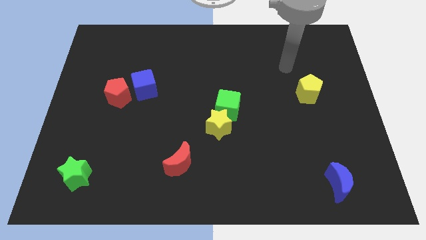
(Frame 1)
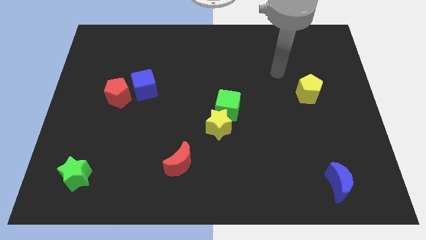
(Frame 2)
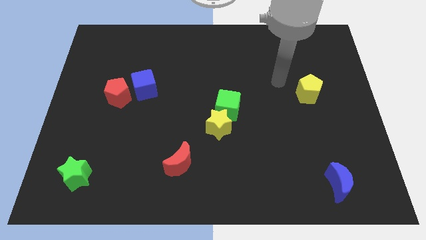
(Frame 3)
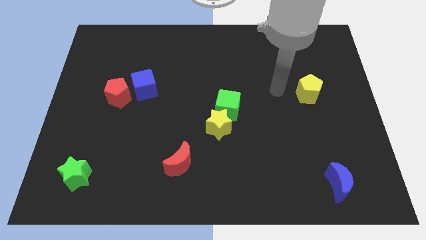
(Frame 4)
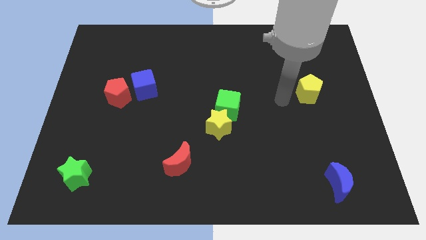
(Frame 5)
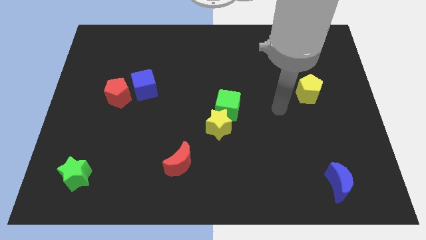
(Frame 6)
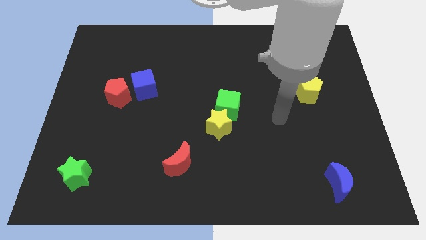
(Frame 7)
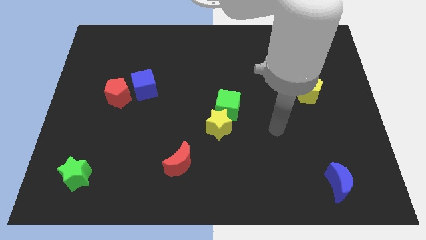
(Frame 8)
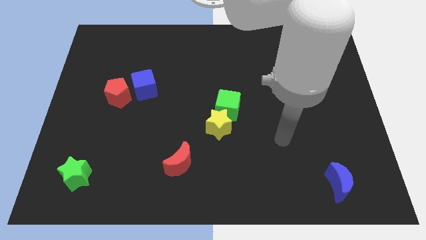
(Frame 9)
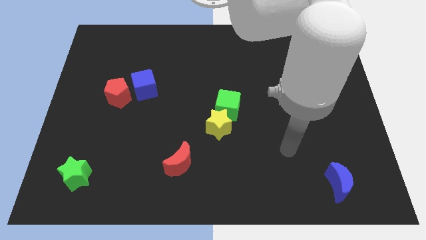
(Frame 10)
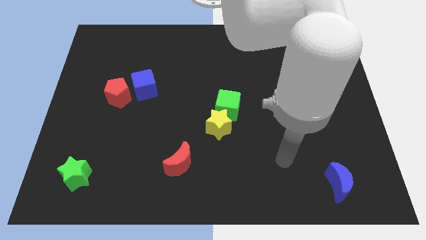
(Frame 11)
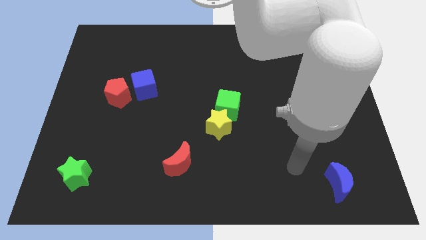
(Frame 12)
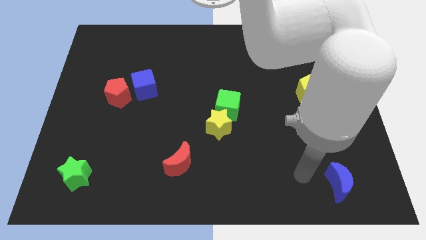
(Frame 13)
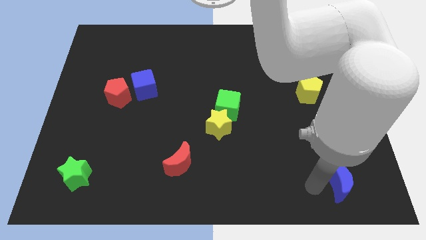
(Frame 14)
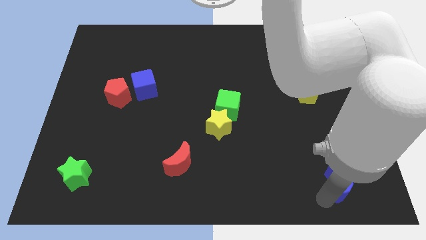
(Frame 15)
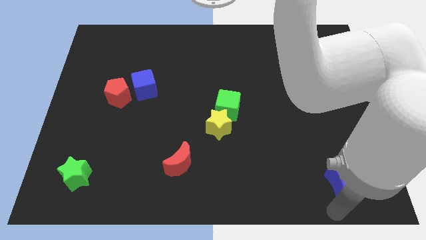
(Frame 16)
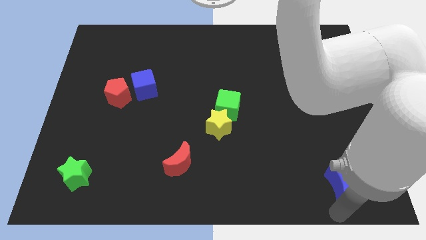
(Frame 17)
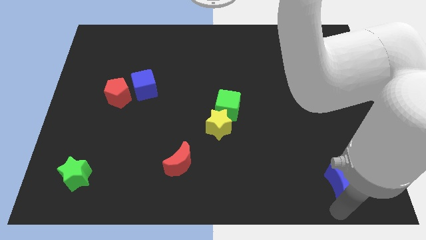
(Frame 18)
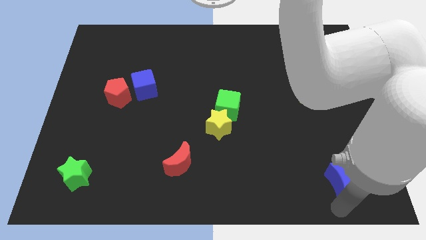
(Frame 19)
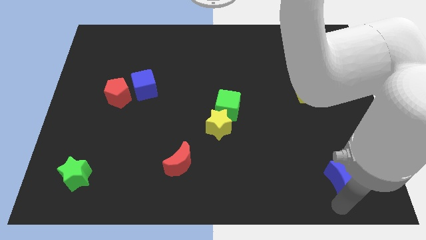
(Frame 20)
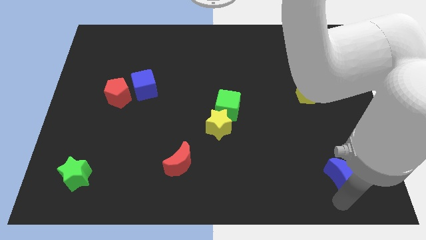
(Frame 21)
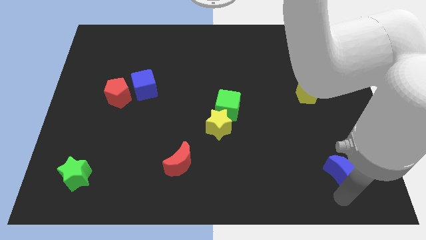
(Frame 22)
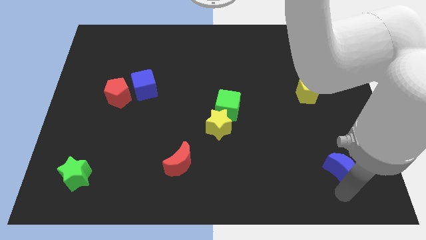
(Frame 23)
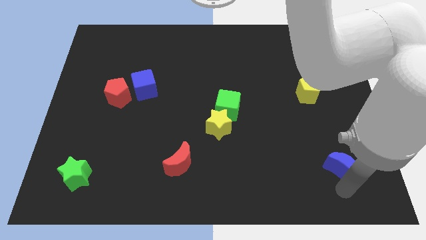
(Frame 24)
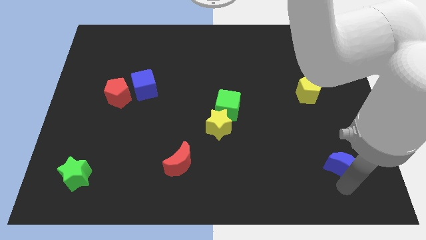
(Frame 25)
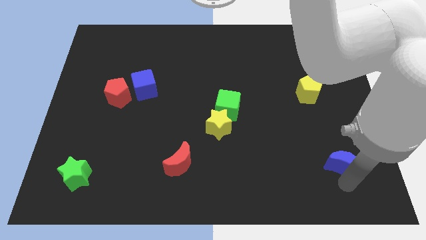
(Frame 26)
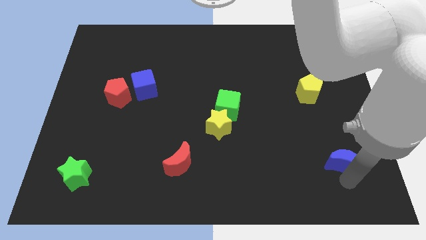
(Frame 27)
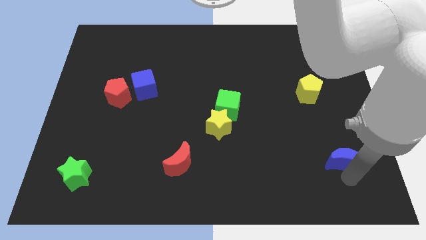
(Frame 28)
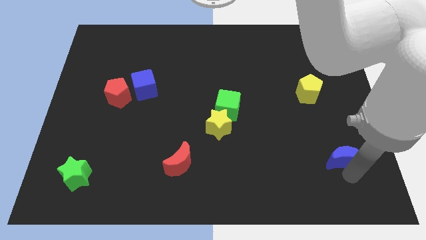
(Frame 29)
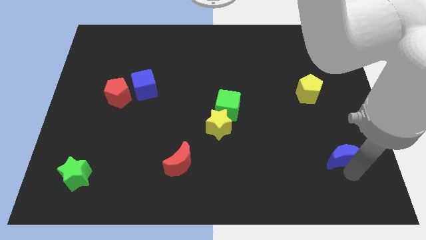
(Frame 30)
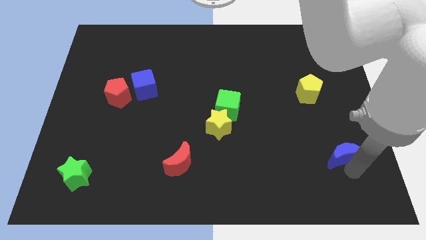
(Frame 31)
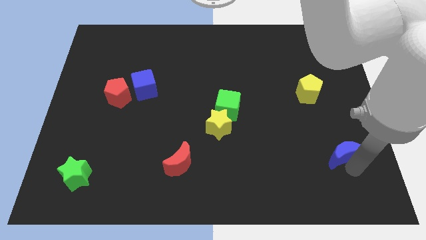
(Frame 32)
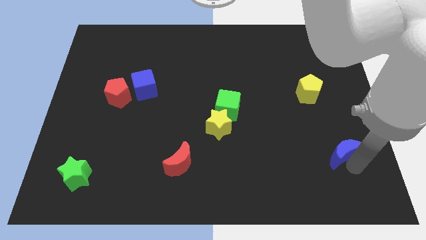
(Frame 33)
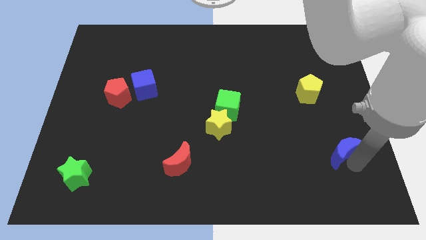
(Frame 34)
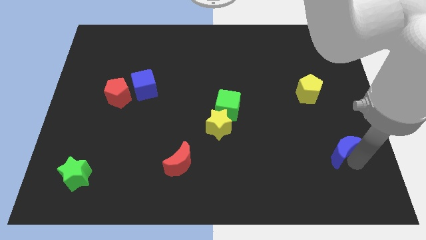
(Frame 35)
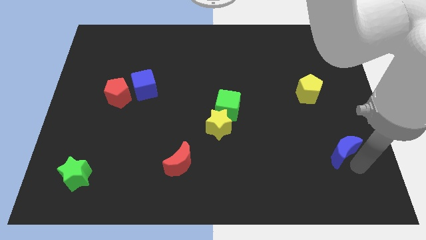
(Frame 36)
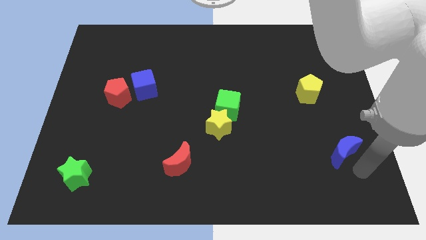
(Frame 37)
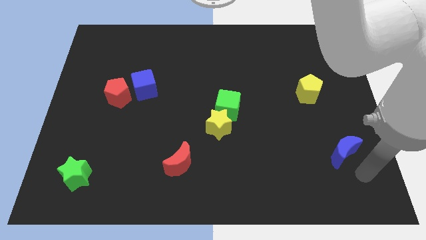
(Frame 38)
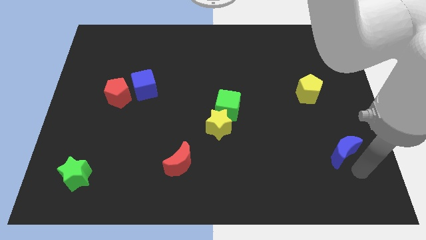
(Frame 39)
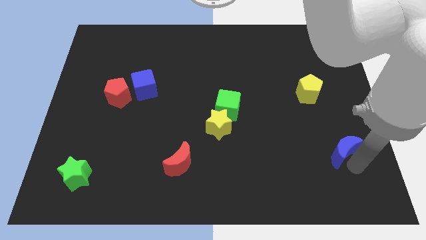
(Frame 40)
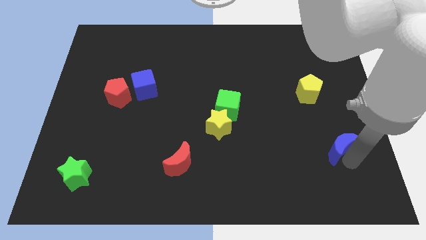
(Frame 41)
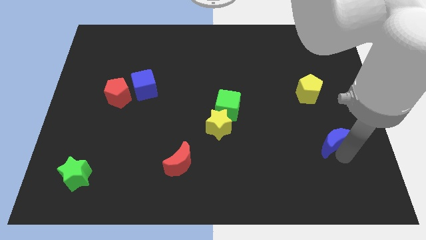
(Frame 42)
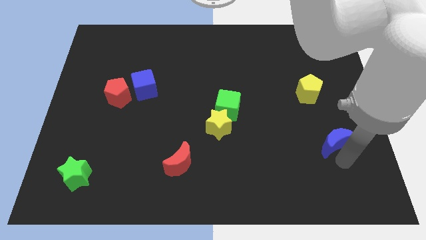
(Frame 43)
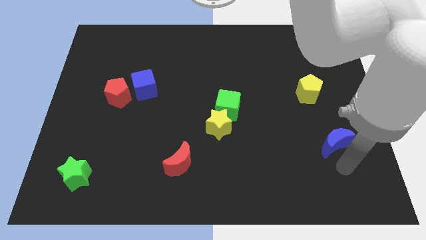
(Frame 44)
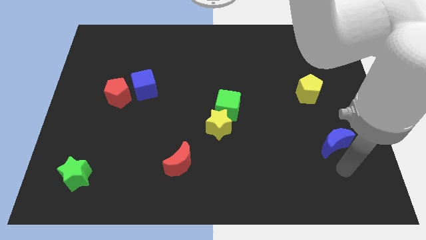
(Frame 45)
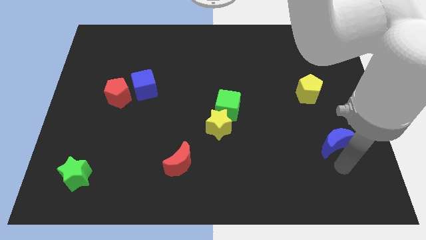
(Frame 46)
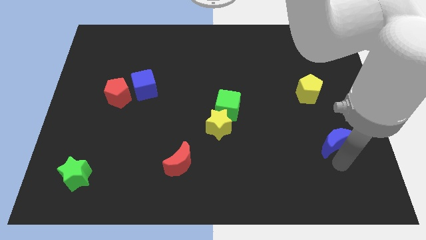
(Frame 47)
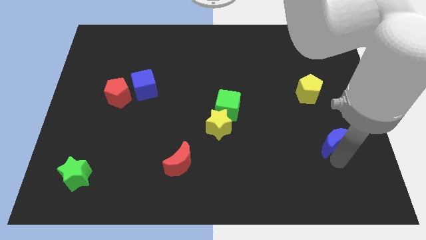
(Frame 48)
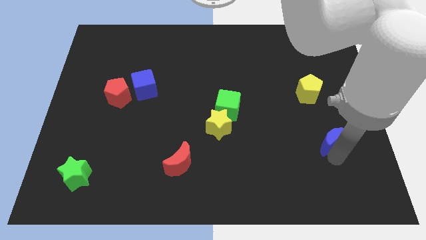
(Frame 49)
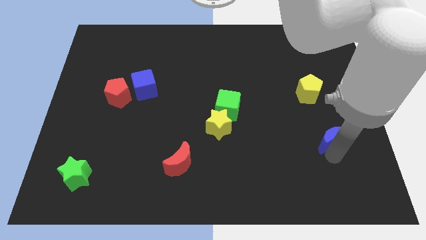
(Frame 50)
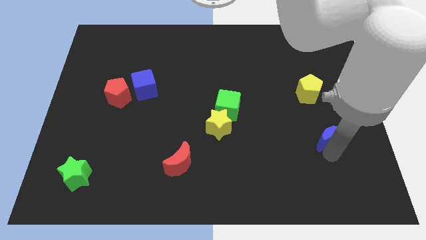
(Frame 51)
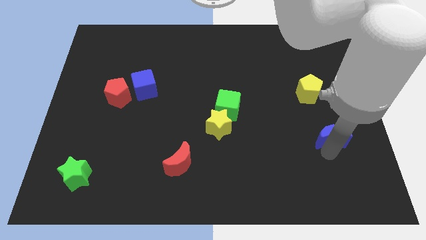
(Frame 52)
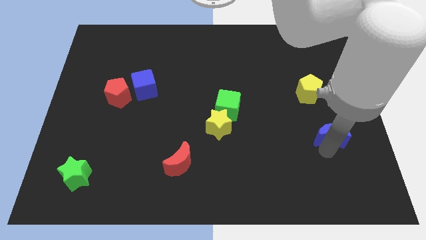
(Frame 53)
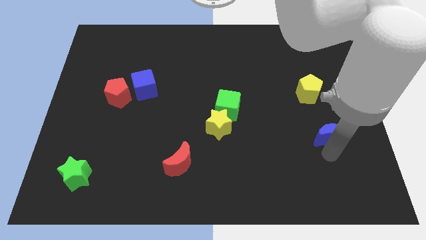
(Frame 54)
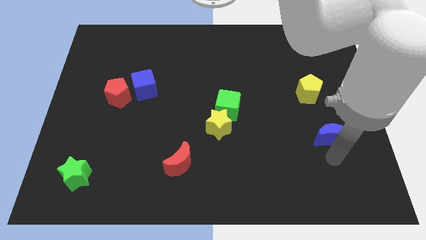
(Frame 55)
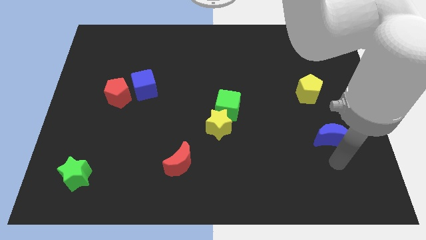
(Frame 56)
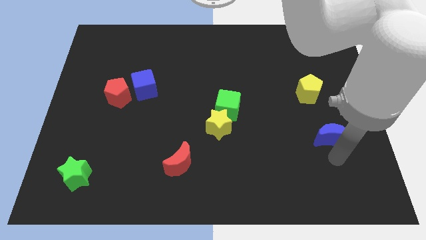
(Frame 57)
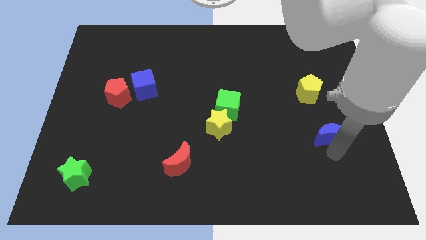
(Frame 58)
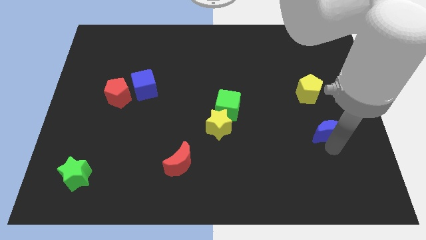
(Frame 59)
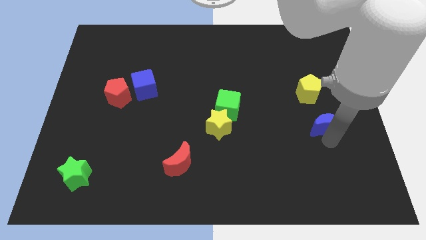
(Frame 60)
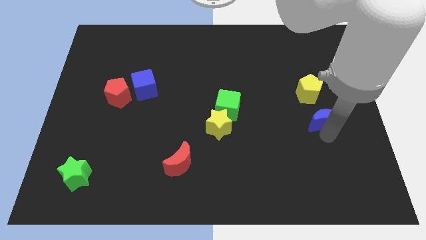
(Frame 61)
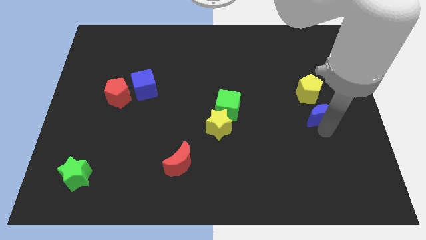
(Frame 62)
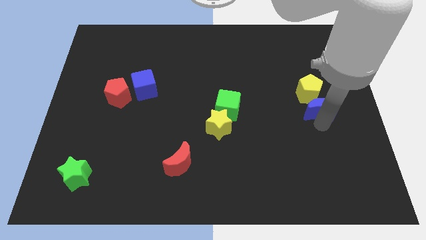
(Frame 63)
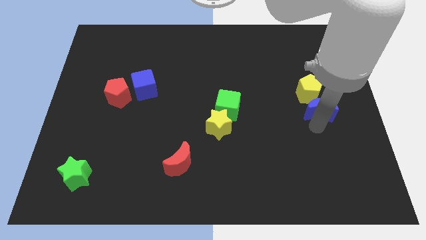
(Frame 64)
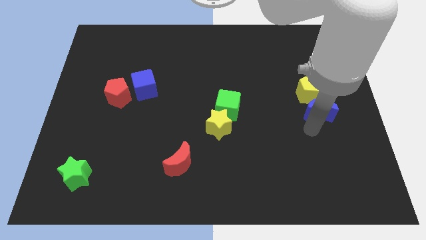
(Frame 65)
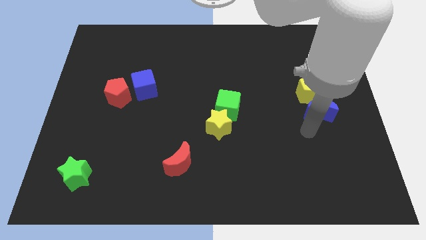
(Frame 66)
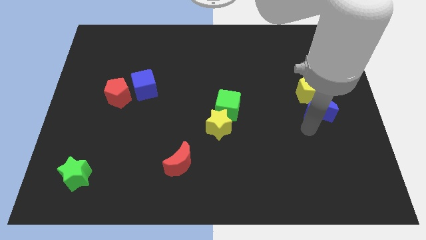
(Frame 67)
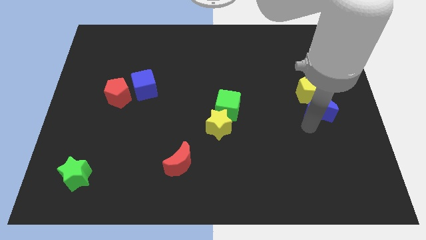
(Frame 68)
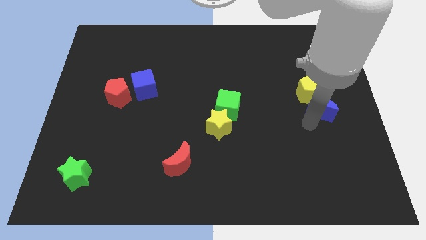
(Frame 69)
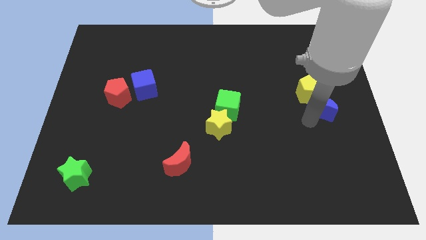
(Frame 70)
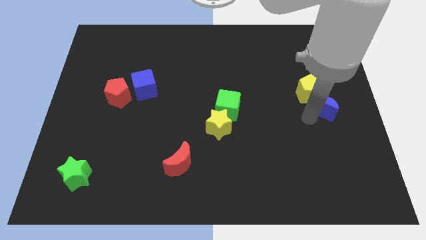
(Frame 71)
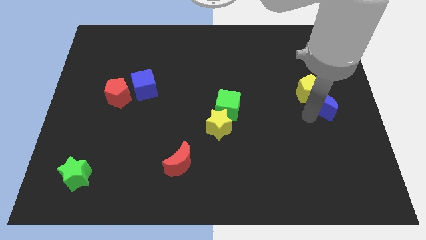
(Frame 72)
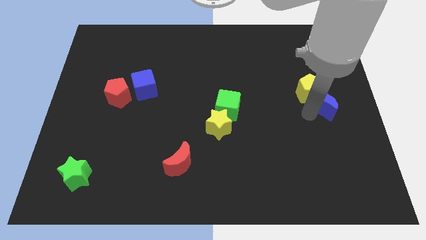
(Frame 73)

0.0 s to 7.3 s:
move the blue moon up

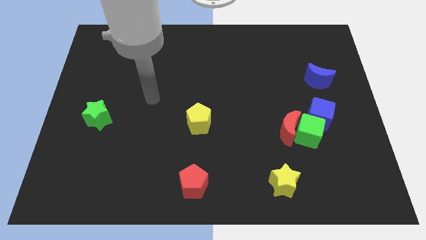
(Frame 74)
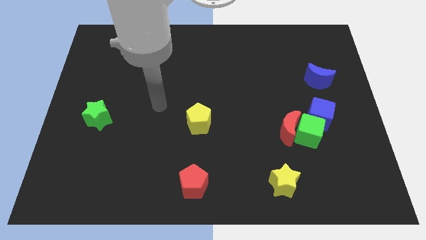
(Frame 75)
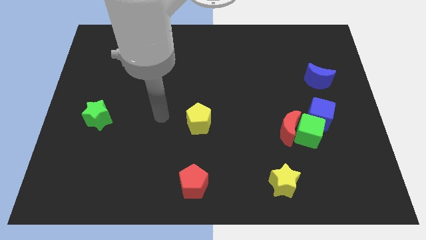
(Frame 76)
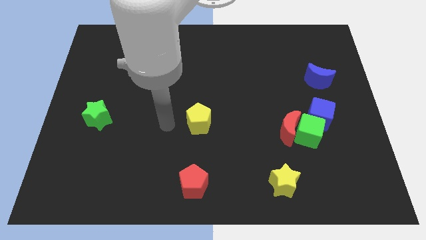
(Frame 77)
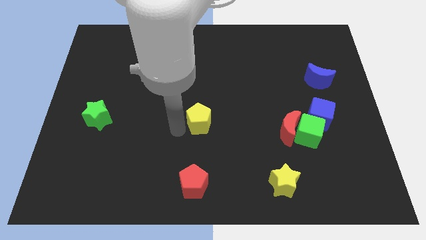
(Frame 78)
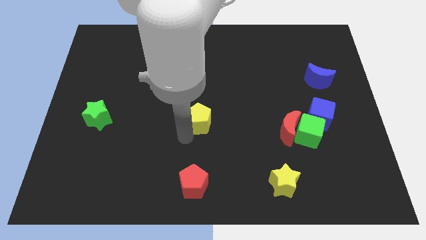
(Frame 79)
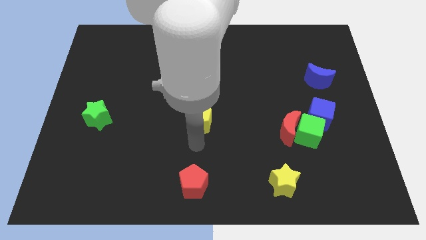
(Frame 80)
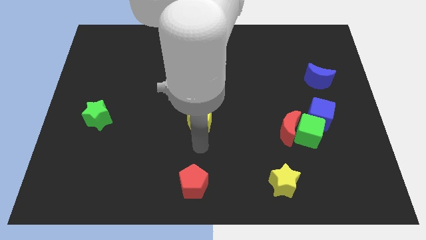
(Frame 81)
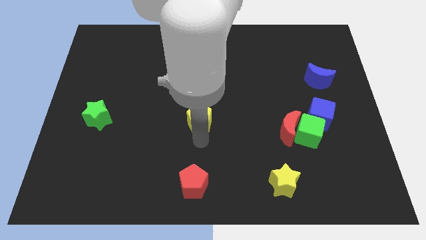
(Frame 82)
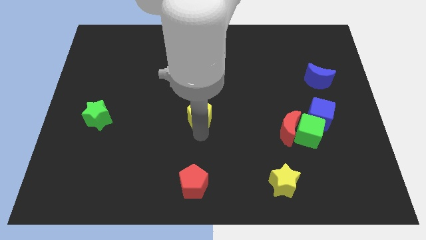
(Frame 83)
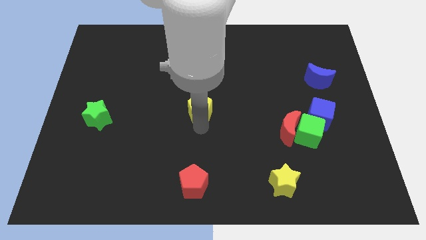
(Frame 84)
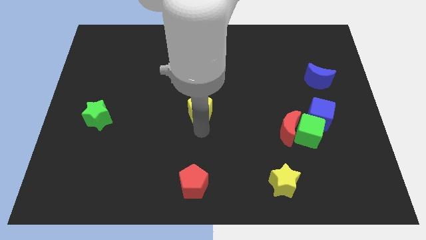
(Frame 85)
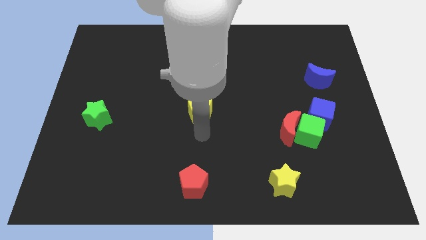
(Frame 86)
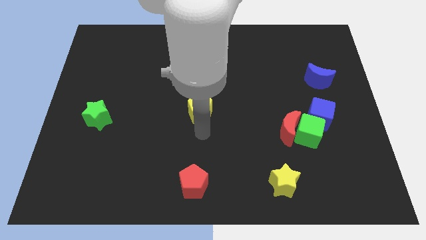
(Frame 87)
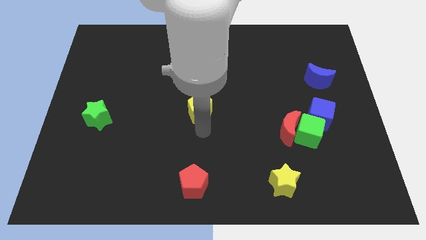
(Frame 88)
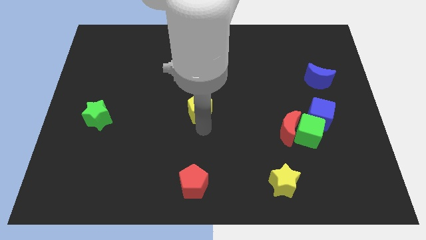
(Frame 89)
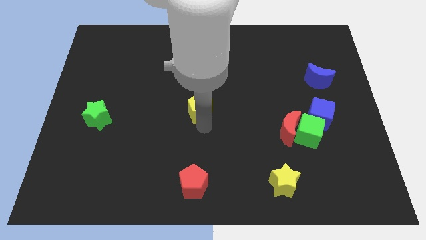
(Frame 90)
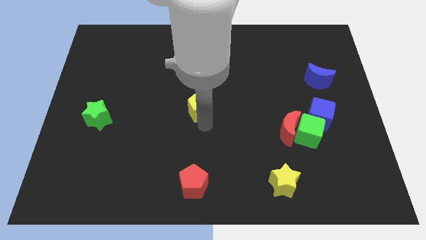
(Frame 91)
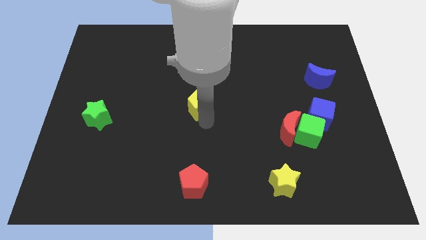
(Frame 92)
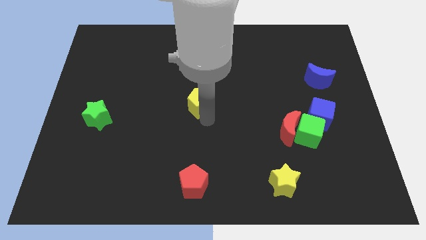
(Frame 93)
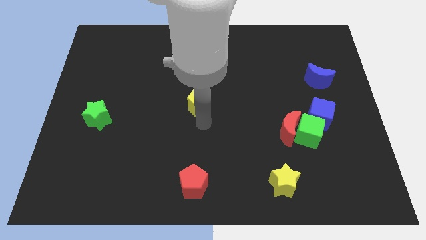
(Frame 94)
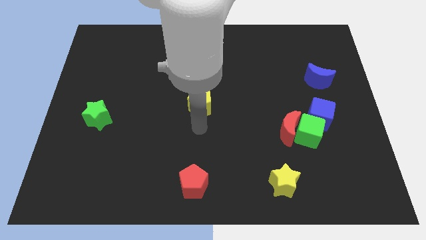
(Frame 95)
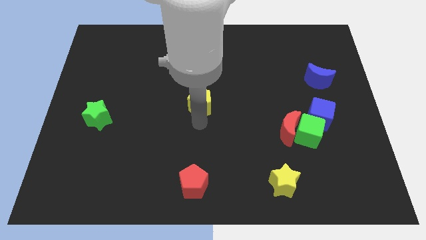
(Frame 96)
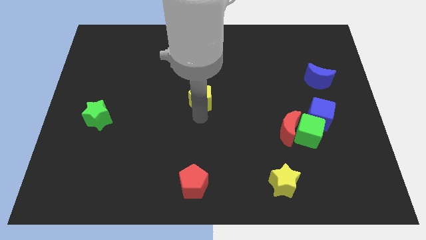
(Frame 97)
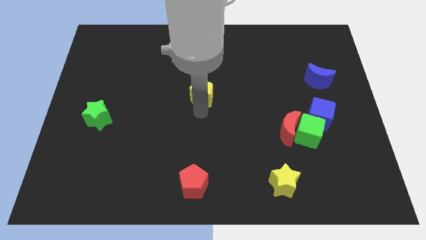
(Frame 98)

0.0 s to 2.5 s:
push the yellow pentagon somewhat up
